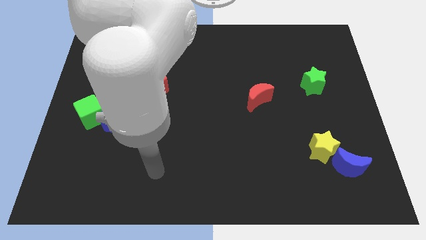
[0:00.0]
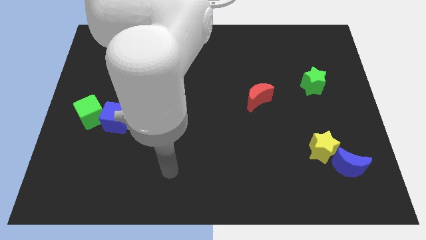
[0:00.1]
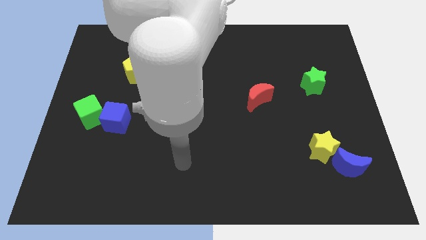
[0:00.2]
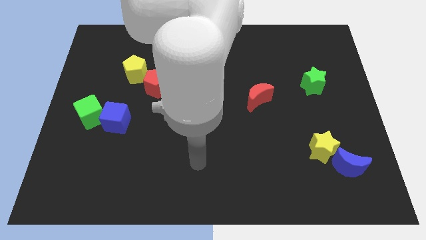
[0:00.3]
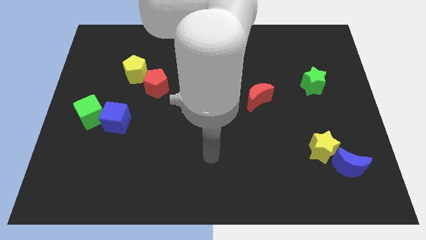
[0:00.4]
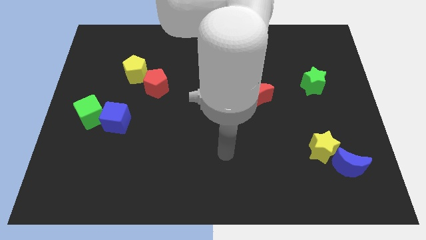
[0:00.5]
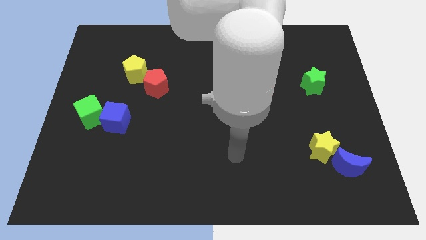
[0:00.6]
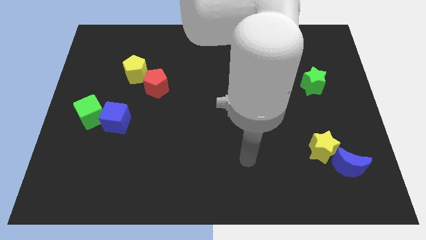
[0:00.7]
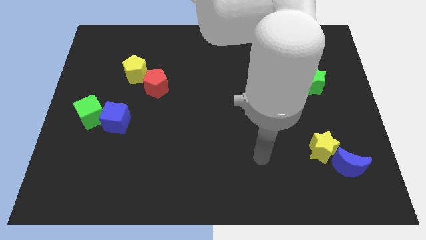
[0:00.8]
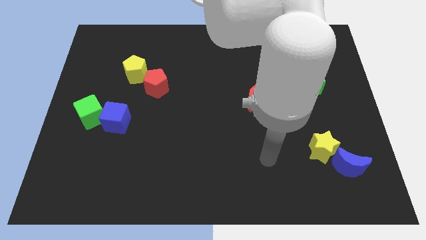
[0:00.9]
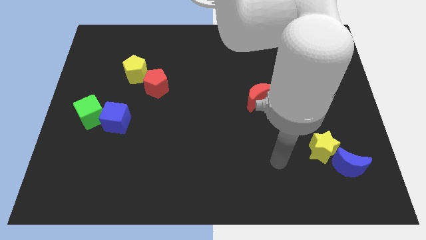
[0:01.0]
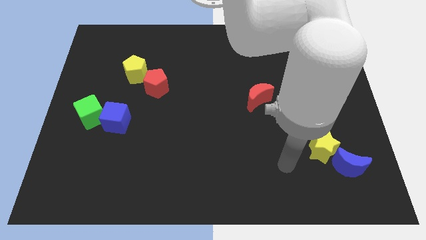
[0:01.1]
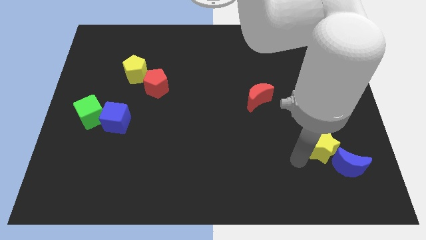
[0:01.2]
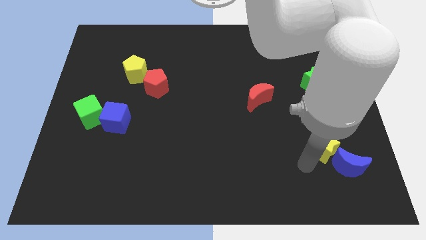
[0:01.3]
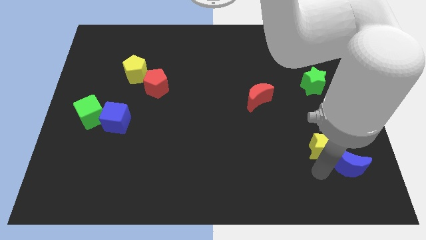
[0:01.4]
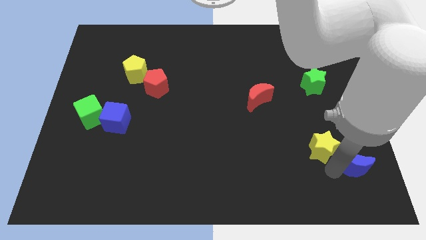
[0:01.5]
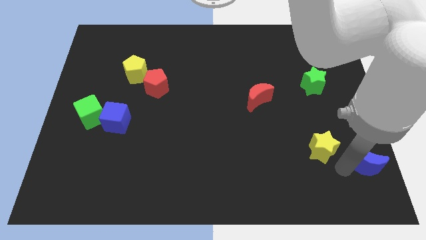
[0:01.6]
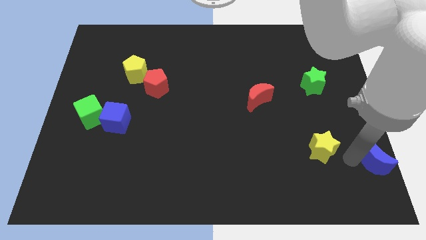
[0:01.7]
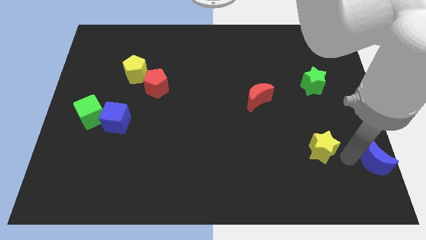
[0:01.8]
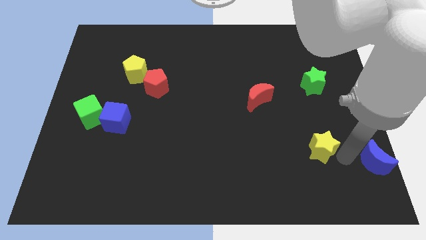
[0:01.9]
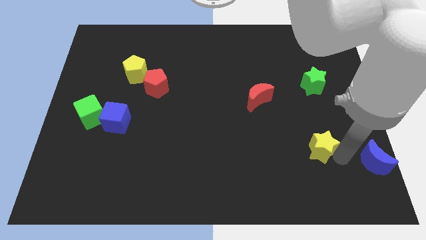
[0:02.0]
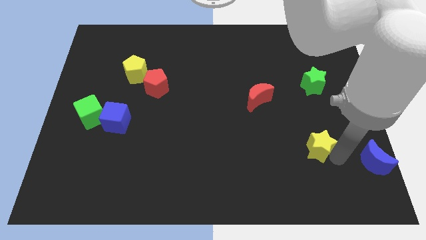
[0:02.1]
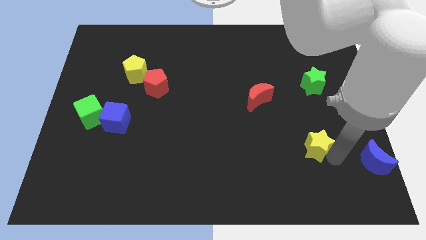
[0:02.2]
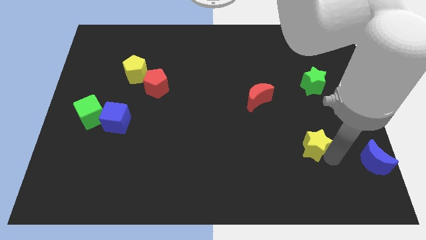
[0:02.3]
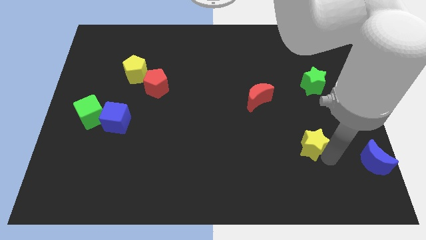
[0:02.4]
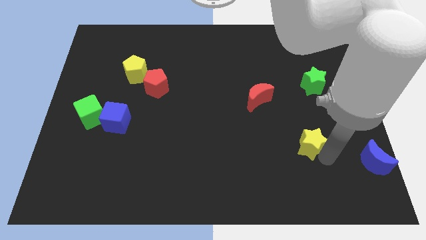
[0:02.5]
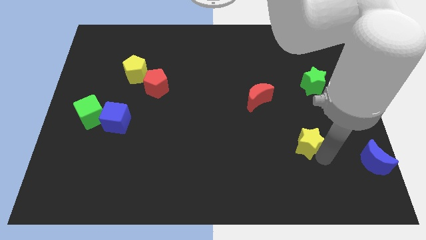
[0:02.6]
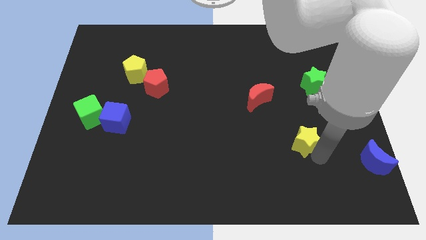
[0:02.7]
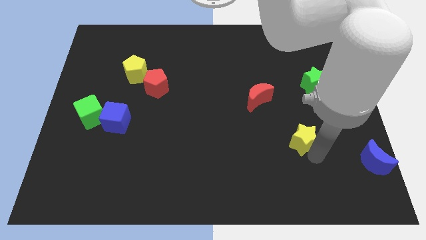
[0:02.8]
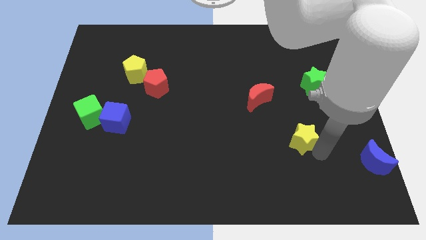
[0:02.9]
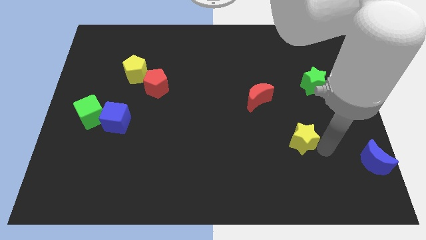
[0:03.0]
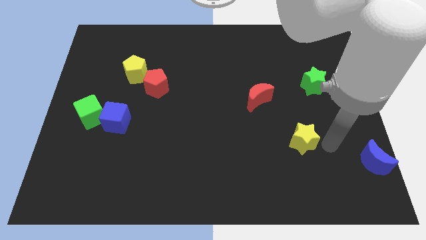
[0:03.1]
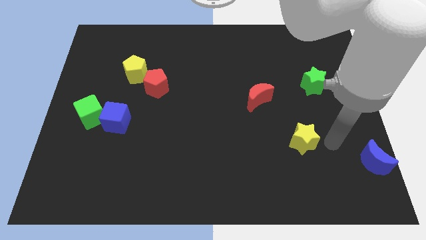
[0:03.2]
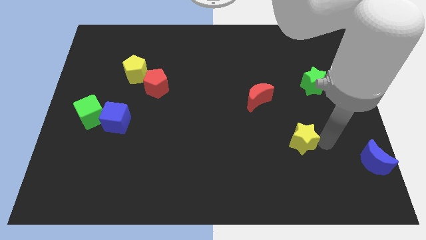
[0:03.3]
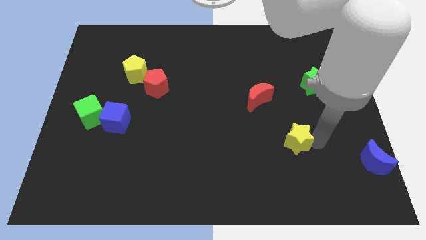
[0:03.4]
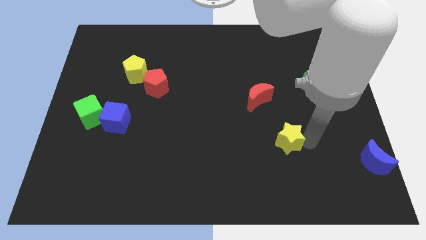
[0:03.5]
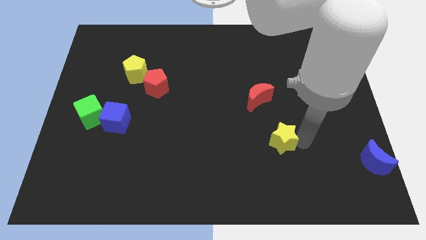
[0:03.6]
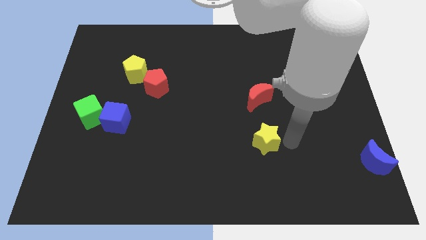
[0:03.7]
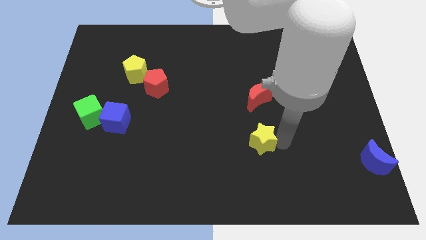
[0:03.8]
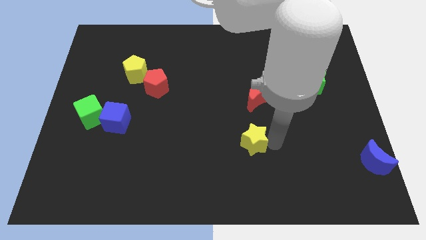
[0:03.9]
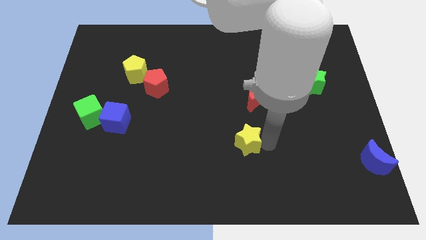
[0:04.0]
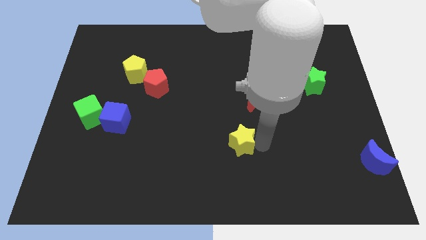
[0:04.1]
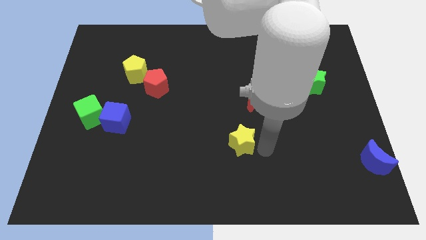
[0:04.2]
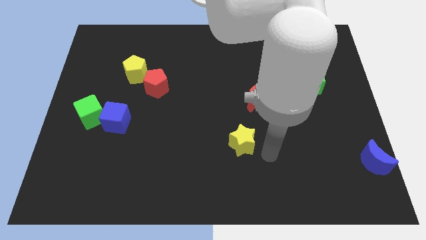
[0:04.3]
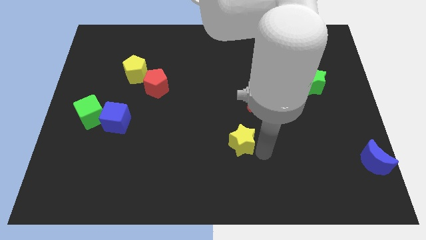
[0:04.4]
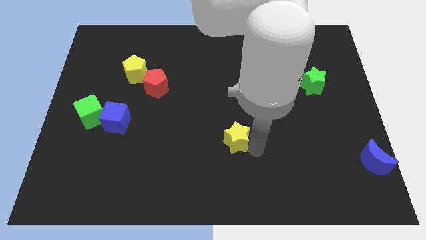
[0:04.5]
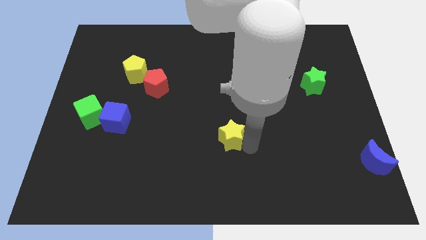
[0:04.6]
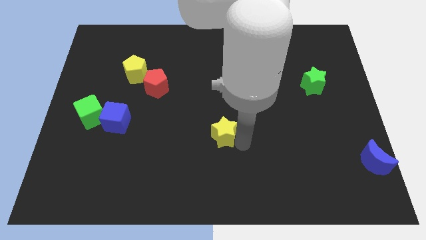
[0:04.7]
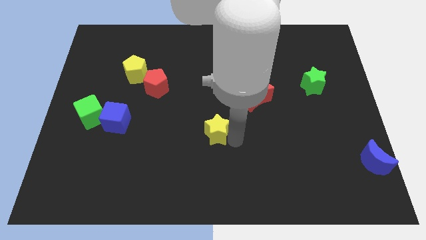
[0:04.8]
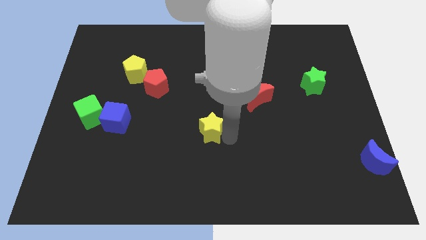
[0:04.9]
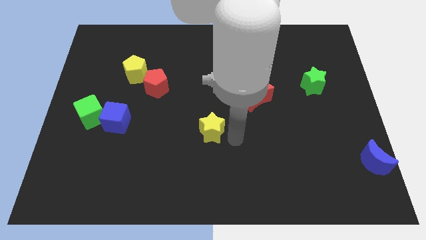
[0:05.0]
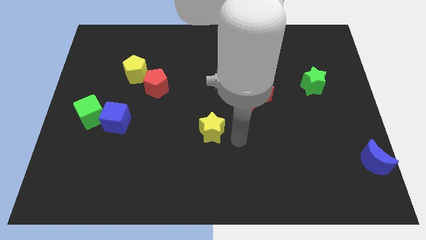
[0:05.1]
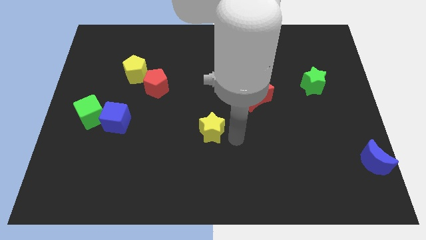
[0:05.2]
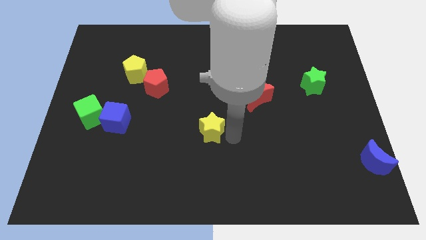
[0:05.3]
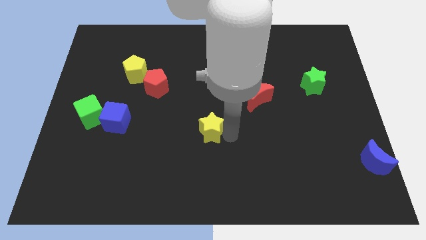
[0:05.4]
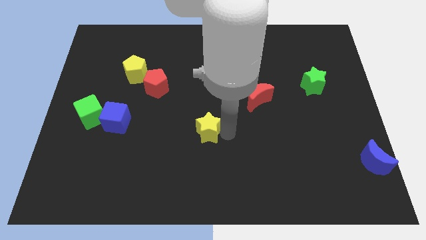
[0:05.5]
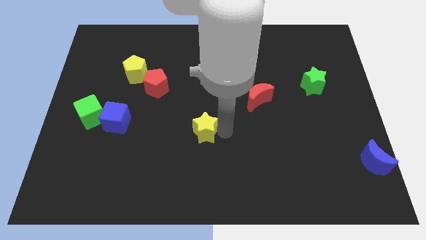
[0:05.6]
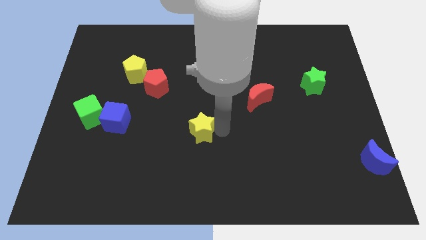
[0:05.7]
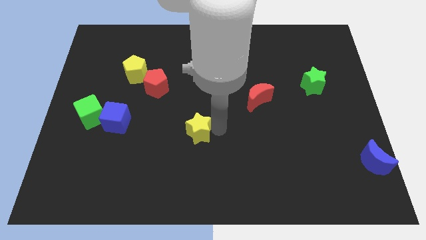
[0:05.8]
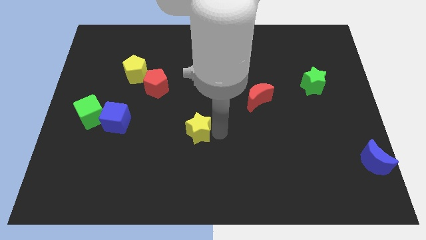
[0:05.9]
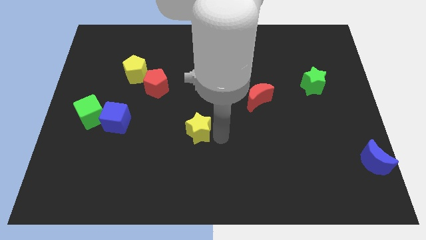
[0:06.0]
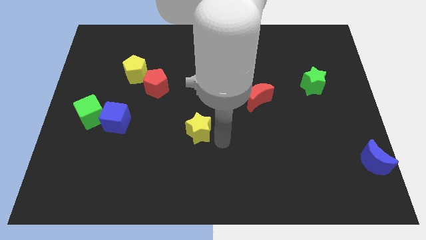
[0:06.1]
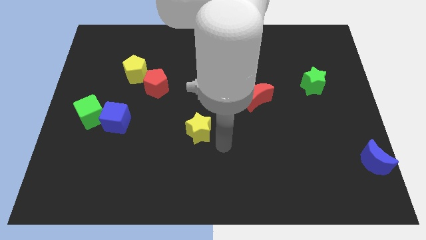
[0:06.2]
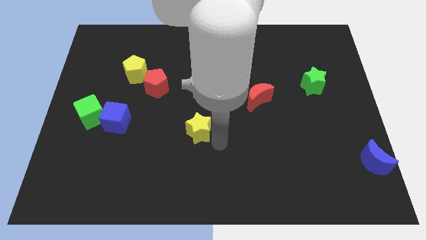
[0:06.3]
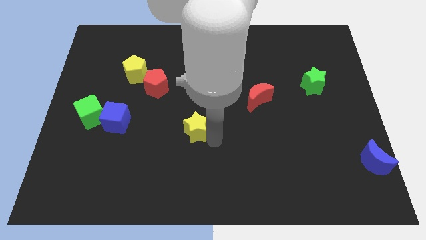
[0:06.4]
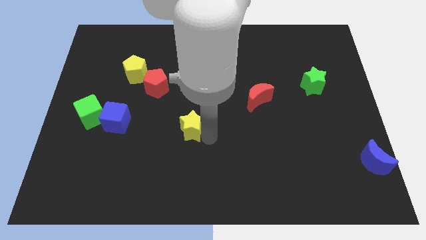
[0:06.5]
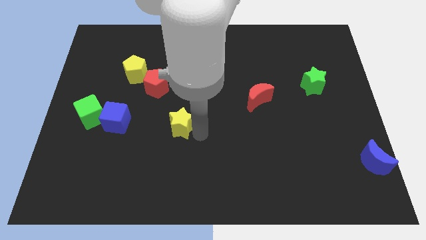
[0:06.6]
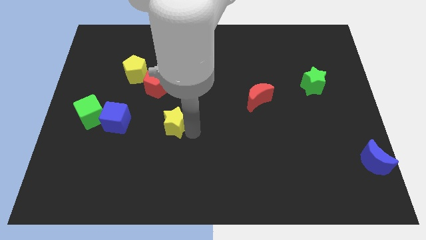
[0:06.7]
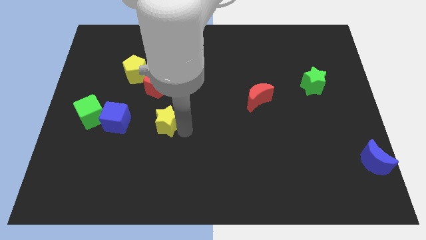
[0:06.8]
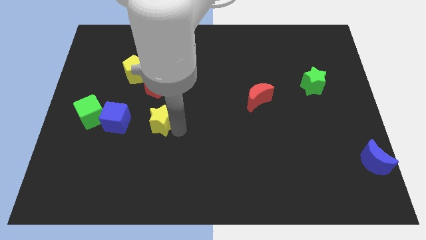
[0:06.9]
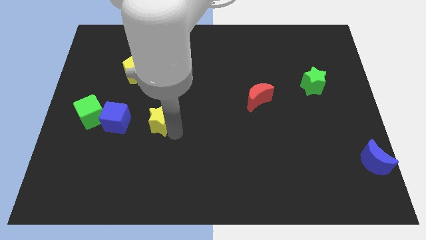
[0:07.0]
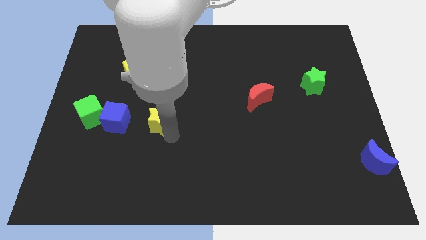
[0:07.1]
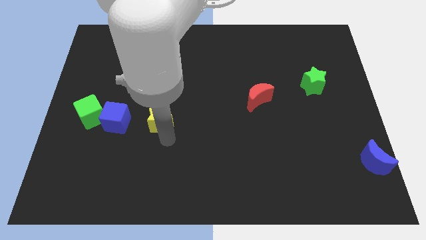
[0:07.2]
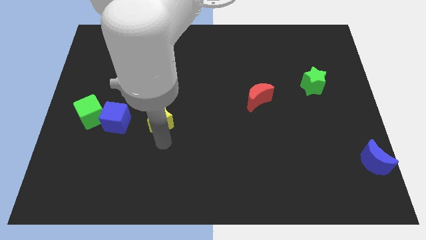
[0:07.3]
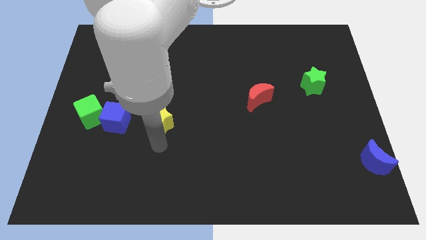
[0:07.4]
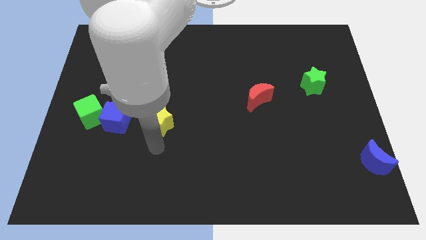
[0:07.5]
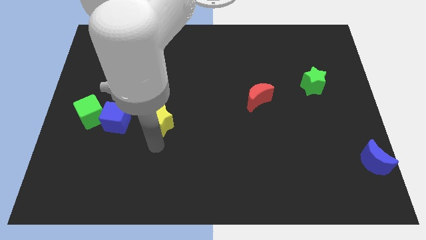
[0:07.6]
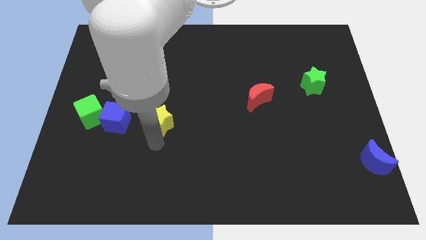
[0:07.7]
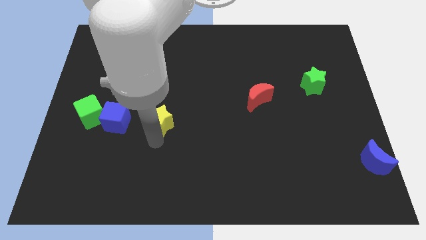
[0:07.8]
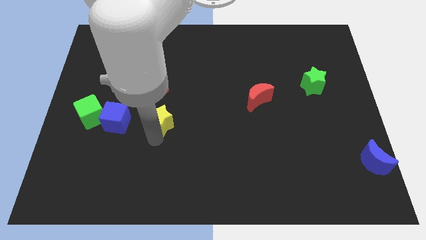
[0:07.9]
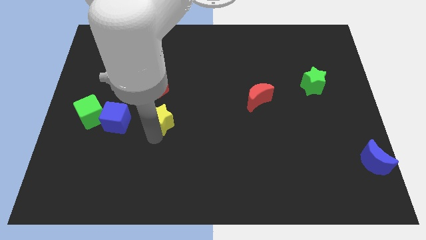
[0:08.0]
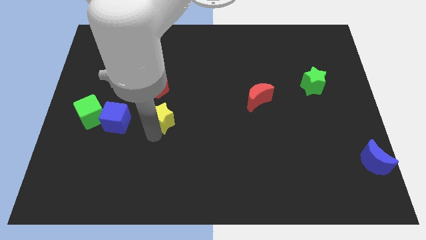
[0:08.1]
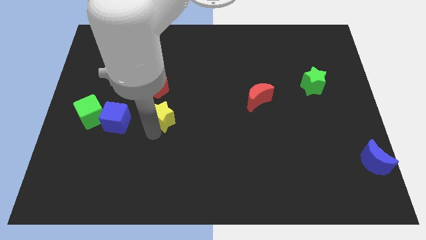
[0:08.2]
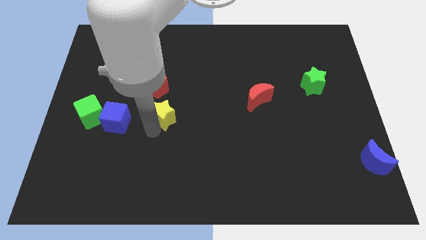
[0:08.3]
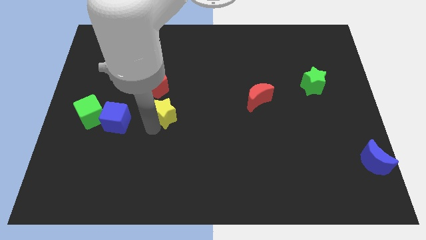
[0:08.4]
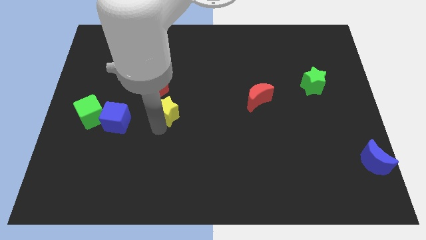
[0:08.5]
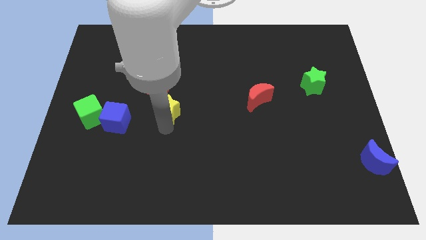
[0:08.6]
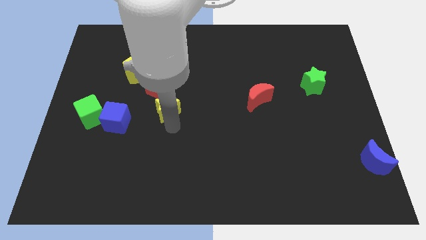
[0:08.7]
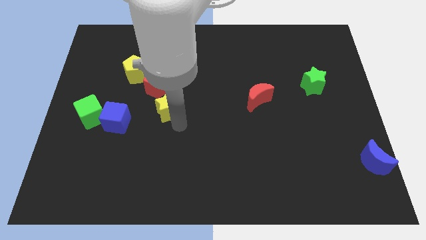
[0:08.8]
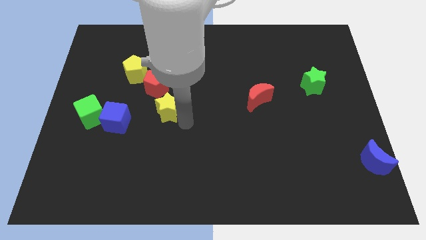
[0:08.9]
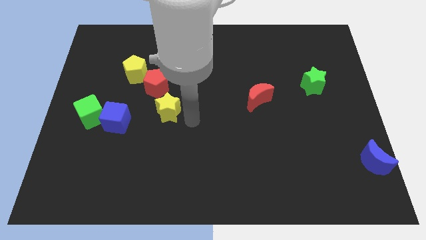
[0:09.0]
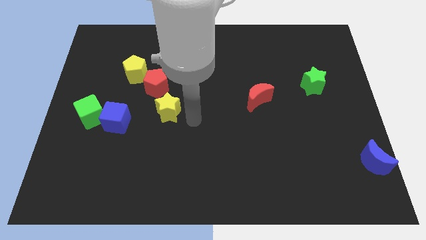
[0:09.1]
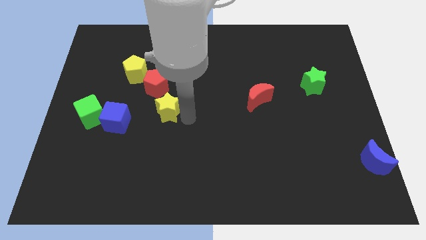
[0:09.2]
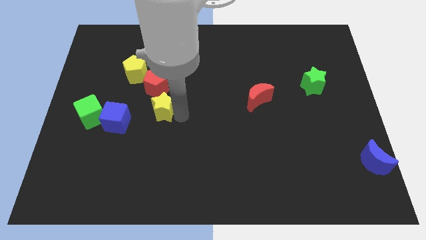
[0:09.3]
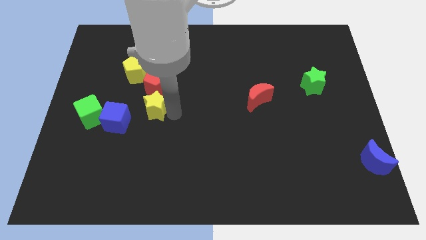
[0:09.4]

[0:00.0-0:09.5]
put the yellow star to the top right of the blue cube
